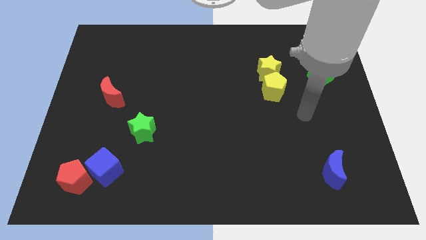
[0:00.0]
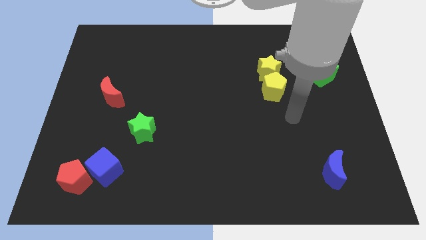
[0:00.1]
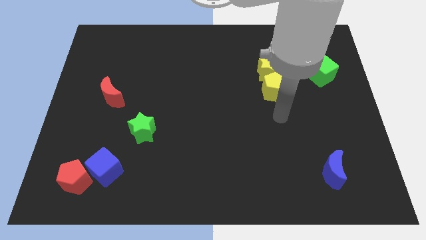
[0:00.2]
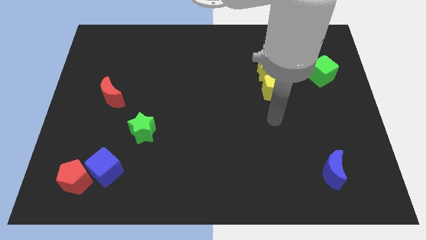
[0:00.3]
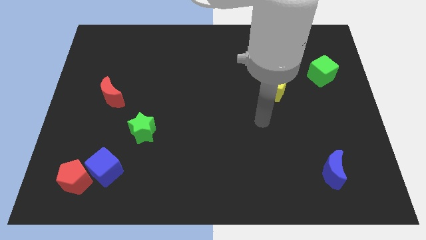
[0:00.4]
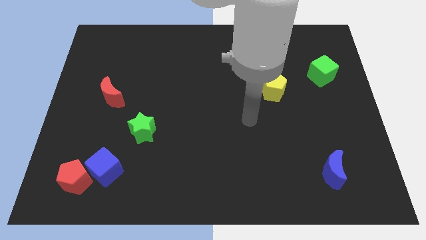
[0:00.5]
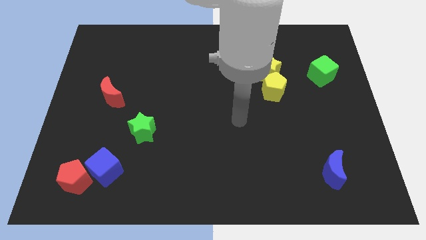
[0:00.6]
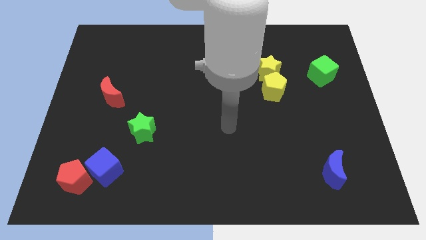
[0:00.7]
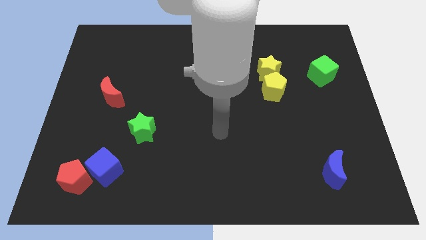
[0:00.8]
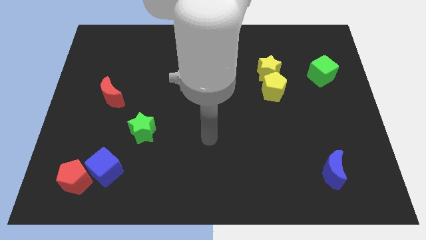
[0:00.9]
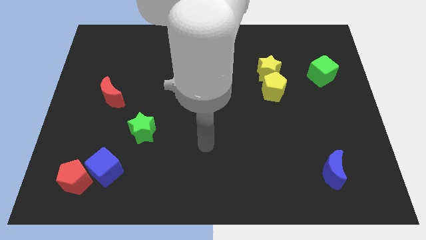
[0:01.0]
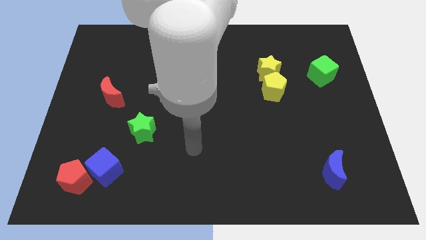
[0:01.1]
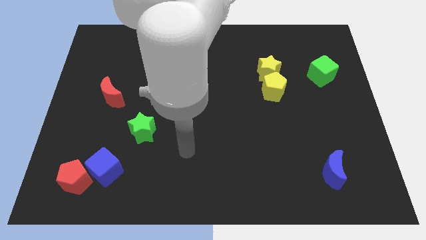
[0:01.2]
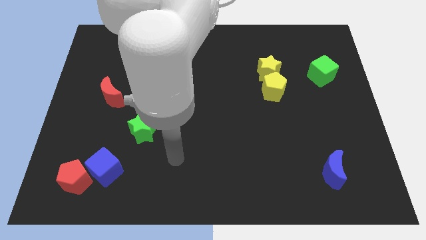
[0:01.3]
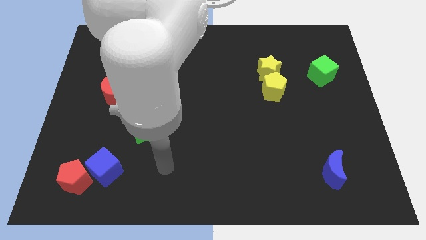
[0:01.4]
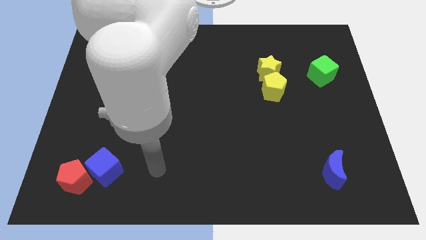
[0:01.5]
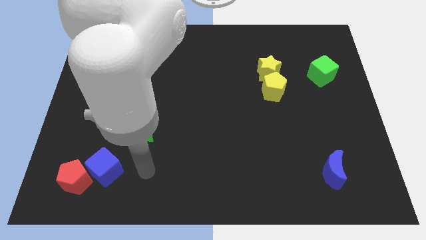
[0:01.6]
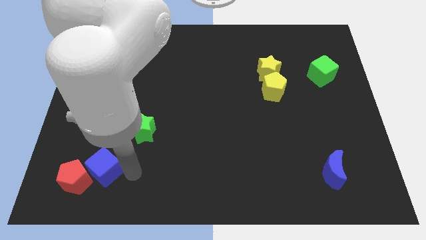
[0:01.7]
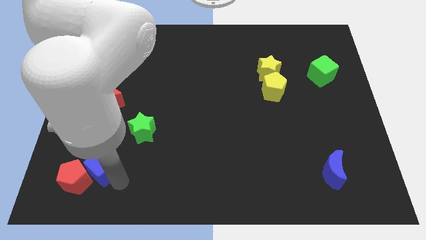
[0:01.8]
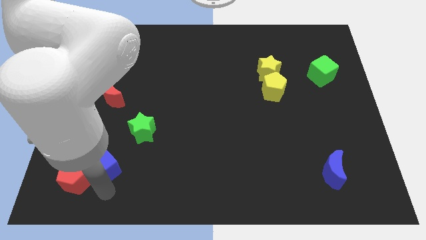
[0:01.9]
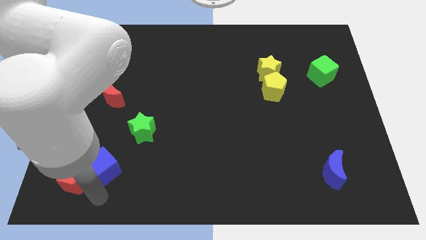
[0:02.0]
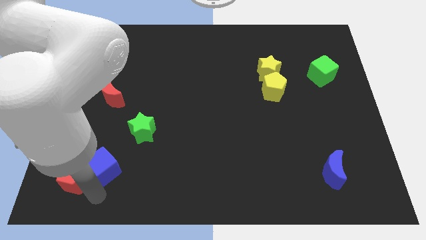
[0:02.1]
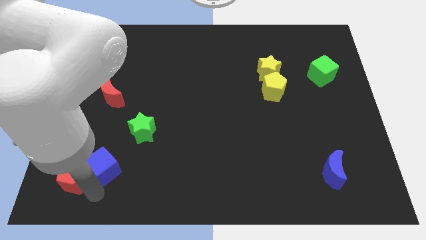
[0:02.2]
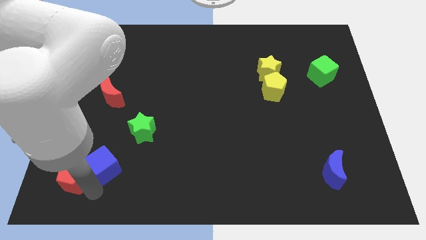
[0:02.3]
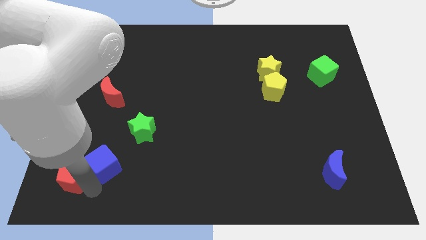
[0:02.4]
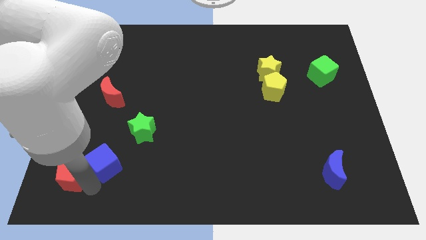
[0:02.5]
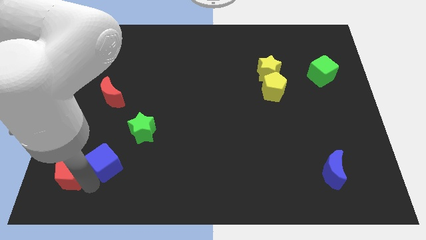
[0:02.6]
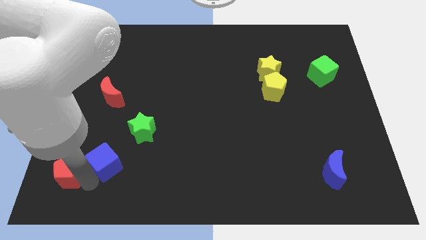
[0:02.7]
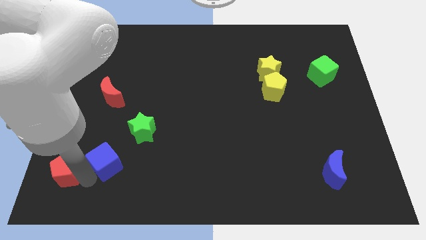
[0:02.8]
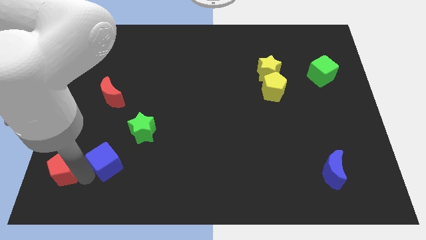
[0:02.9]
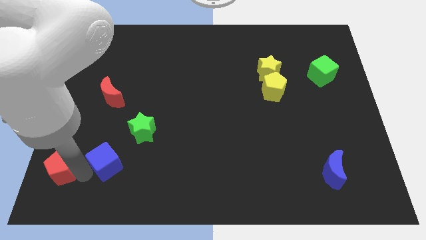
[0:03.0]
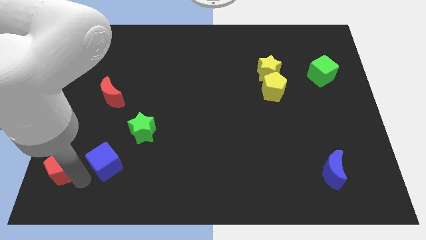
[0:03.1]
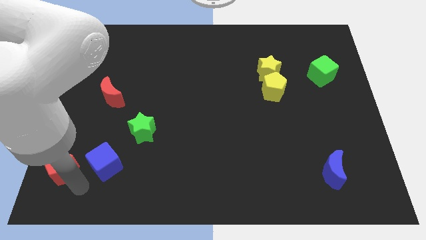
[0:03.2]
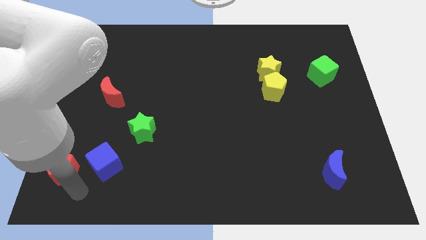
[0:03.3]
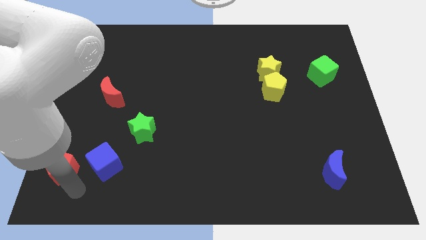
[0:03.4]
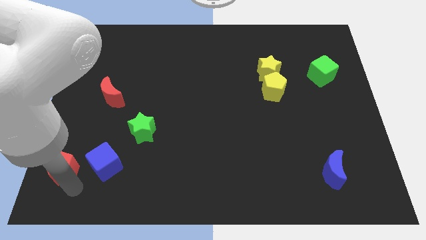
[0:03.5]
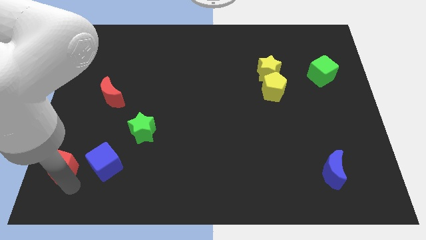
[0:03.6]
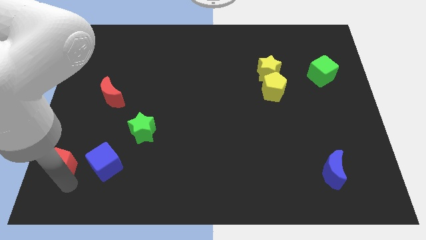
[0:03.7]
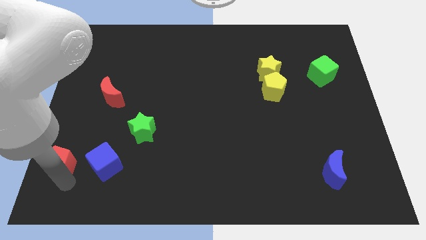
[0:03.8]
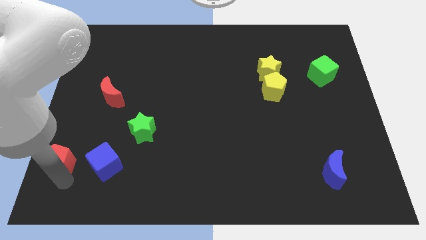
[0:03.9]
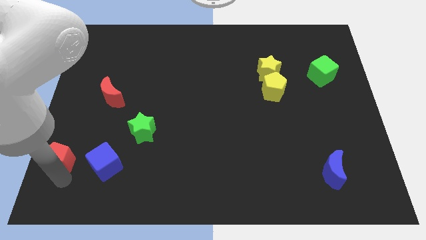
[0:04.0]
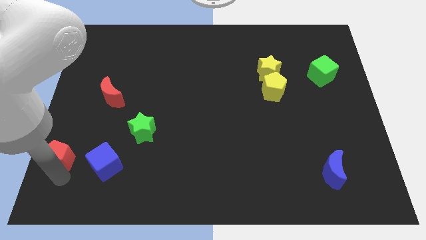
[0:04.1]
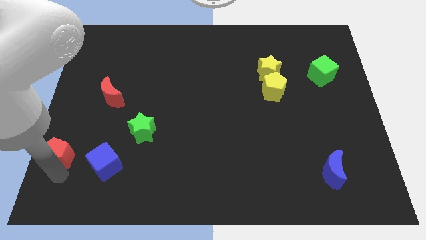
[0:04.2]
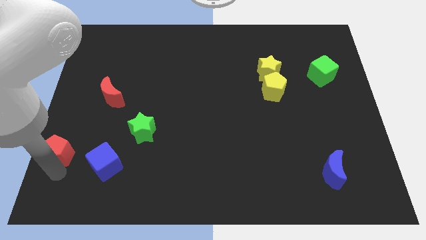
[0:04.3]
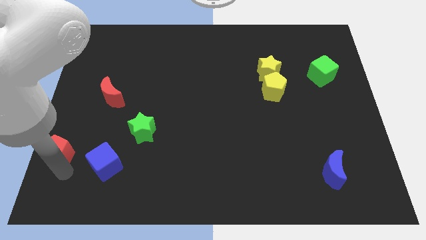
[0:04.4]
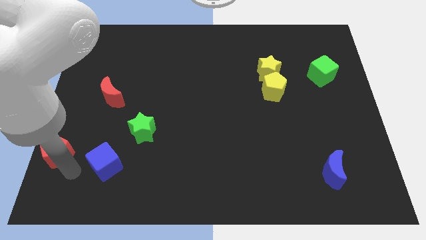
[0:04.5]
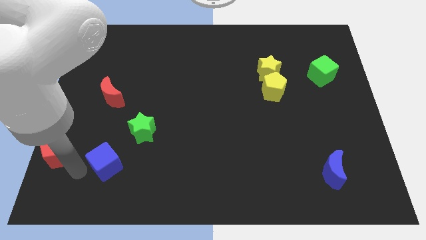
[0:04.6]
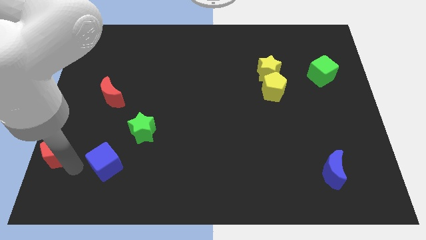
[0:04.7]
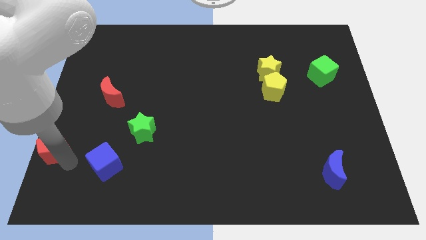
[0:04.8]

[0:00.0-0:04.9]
slide the red pentagon to the center left

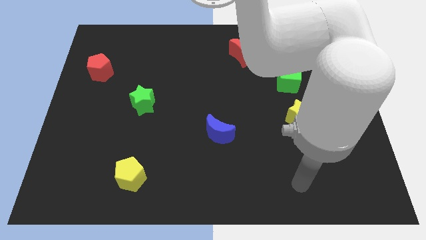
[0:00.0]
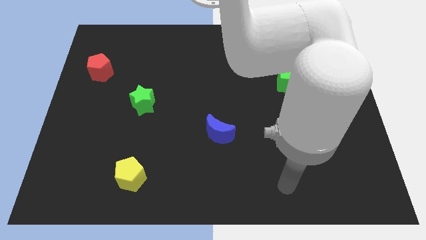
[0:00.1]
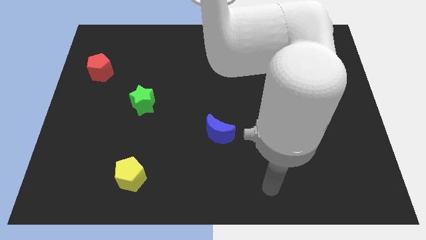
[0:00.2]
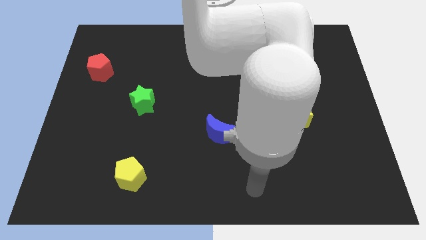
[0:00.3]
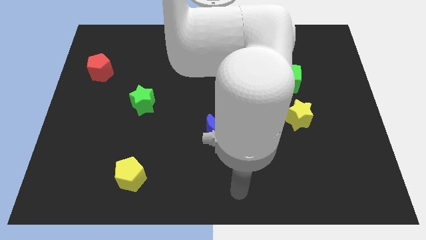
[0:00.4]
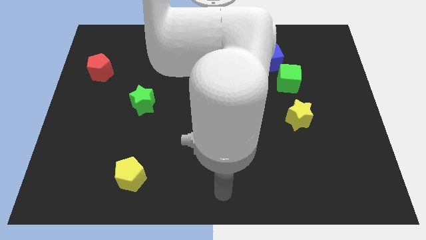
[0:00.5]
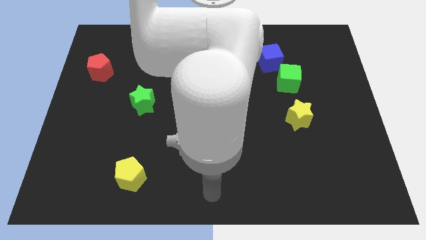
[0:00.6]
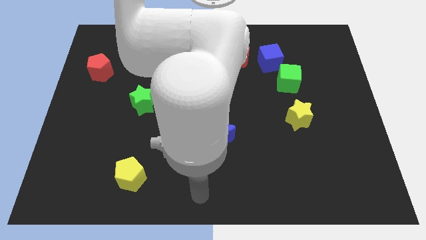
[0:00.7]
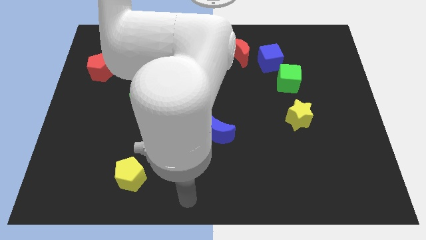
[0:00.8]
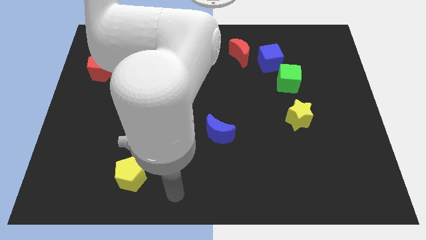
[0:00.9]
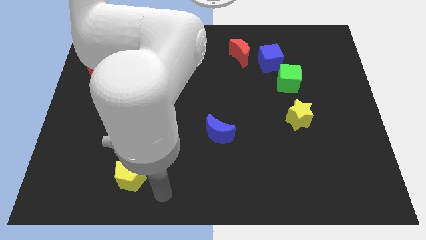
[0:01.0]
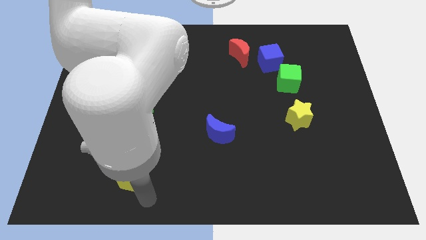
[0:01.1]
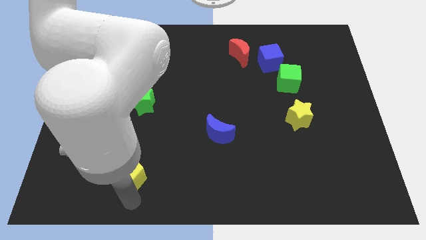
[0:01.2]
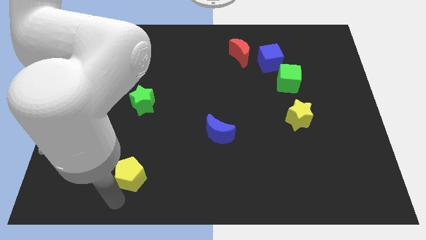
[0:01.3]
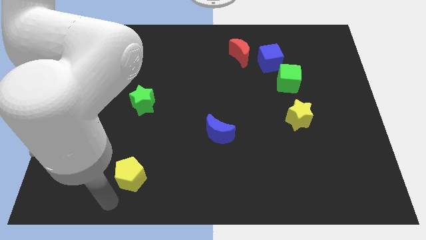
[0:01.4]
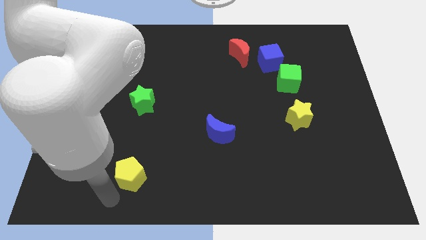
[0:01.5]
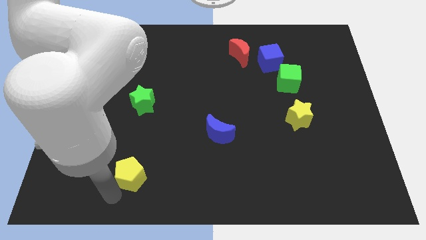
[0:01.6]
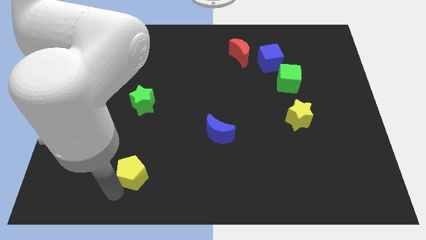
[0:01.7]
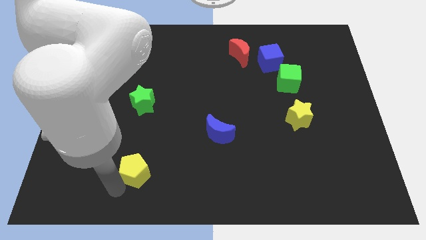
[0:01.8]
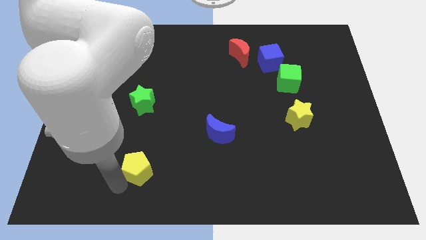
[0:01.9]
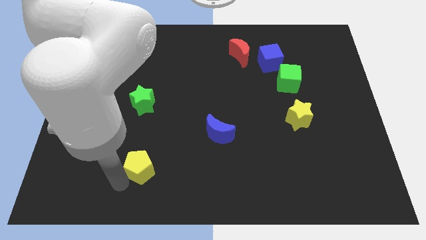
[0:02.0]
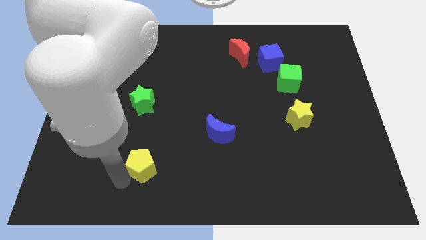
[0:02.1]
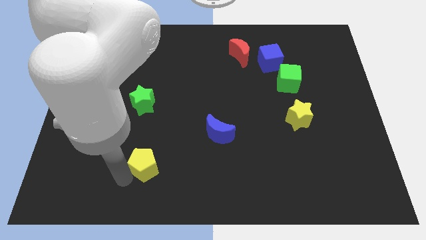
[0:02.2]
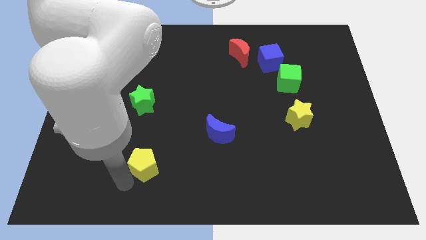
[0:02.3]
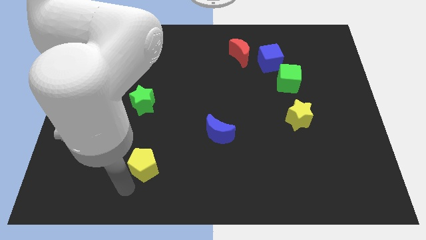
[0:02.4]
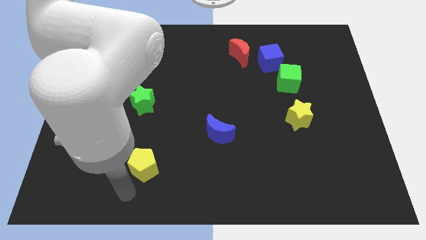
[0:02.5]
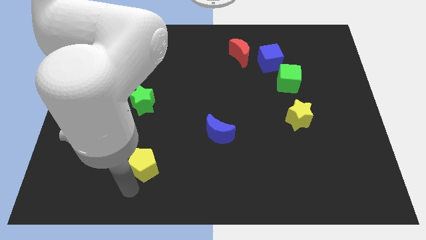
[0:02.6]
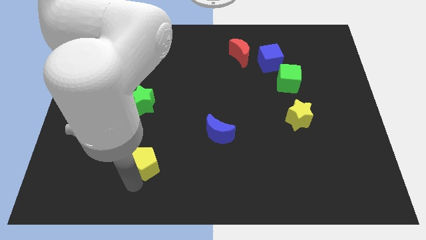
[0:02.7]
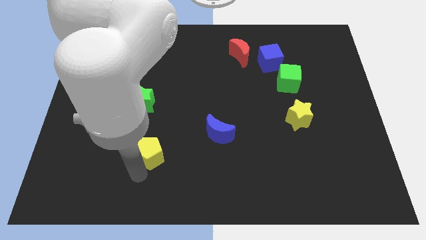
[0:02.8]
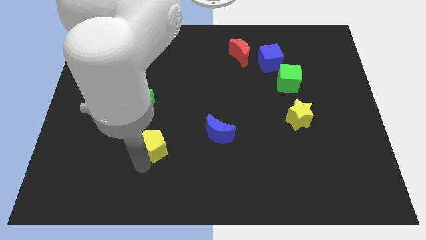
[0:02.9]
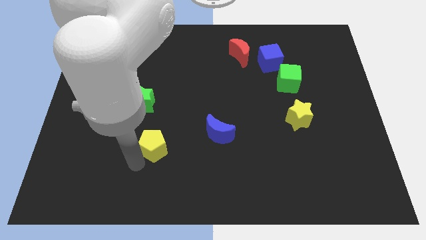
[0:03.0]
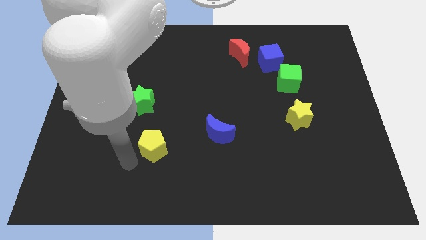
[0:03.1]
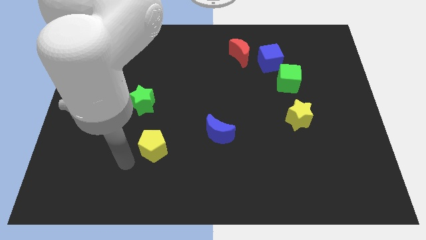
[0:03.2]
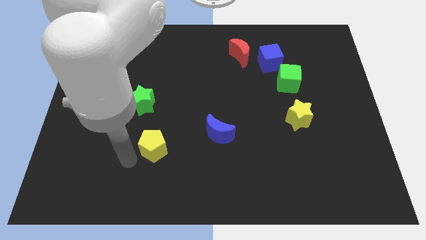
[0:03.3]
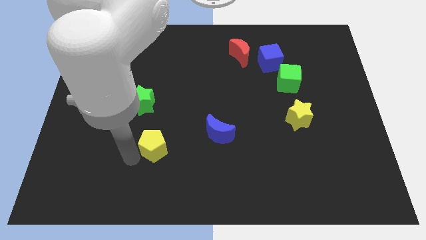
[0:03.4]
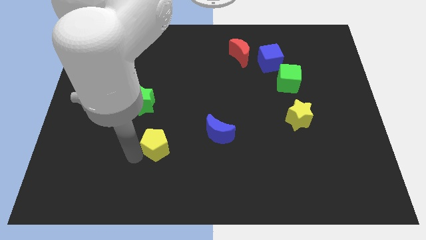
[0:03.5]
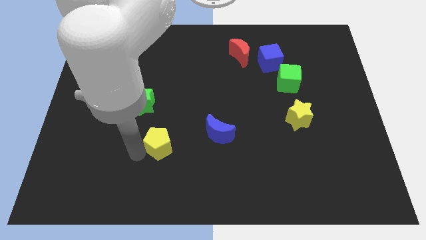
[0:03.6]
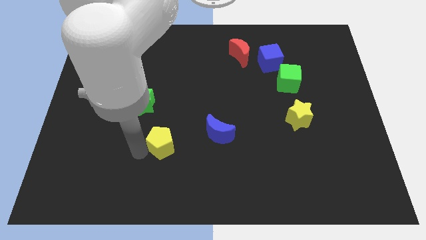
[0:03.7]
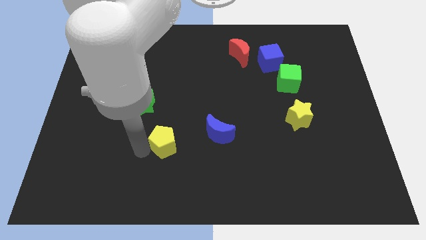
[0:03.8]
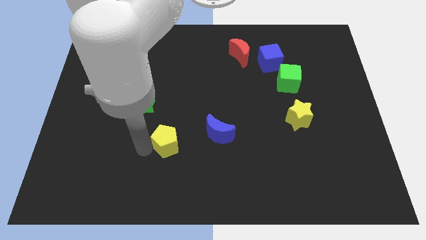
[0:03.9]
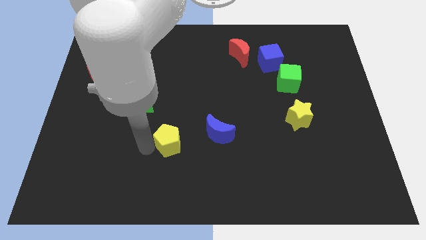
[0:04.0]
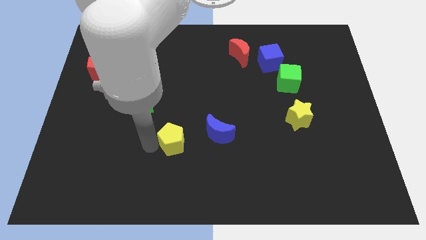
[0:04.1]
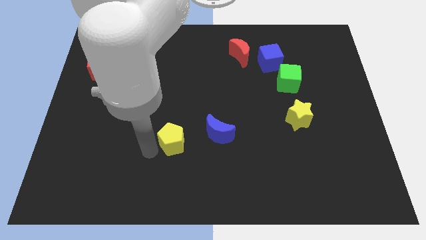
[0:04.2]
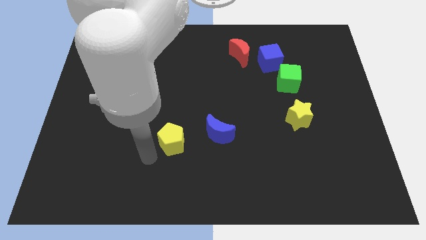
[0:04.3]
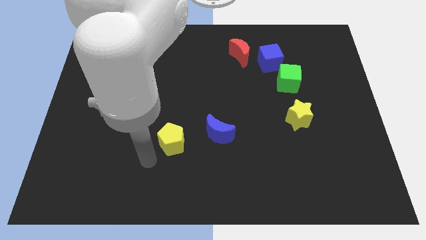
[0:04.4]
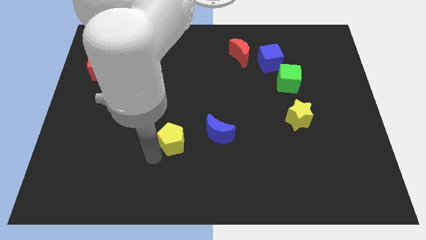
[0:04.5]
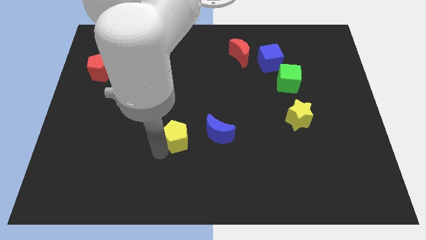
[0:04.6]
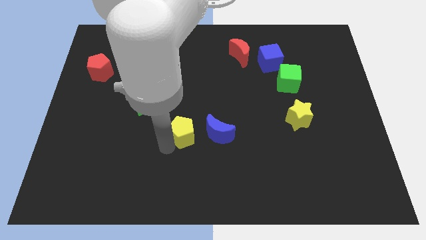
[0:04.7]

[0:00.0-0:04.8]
move the yellow pentagon to the middle of the board
